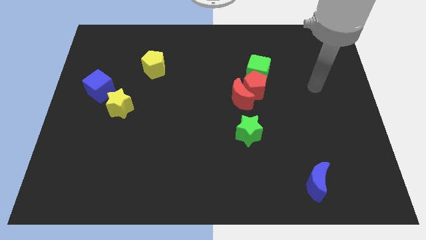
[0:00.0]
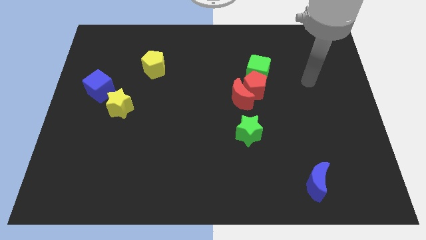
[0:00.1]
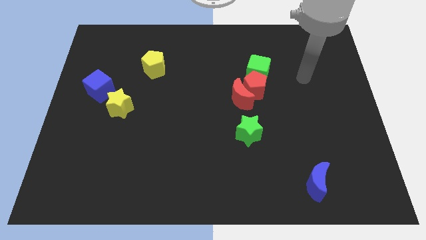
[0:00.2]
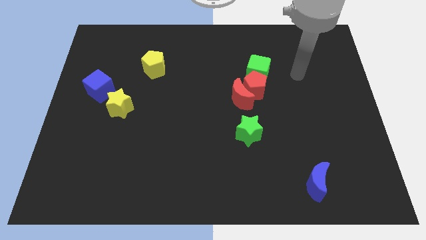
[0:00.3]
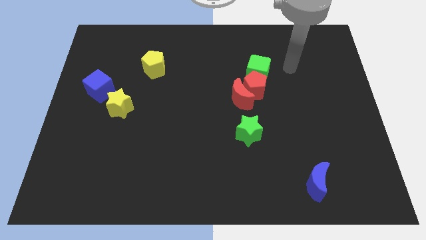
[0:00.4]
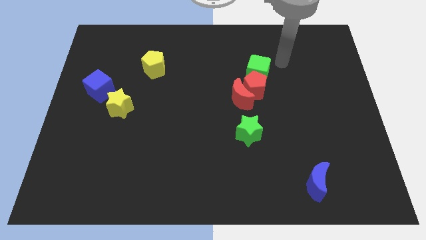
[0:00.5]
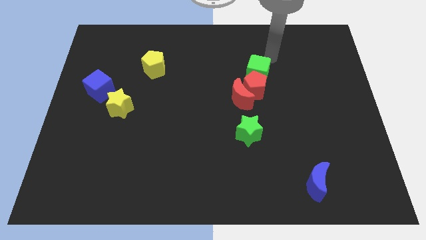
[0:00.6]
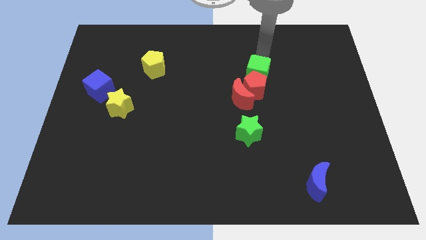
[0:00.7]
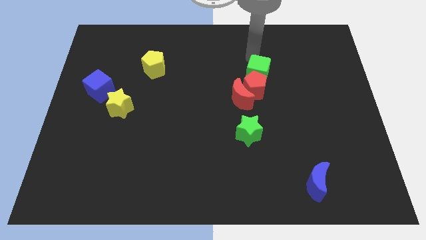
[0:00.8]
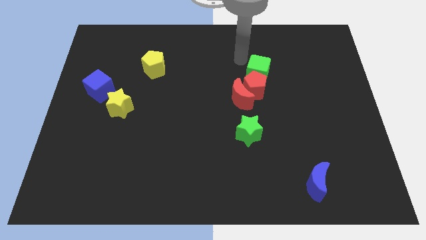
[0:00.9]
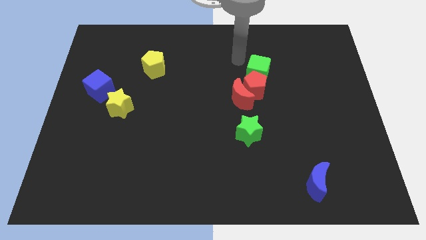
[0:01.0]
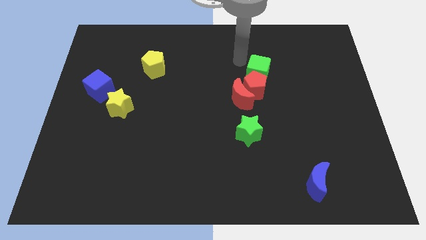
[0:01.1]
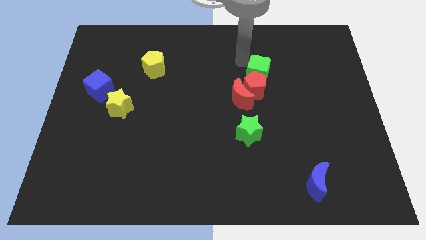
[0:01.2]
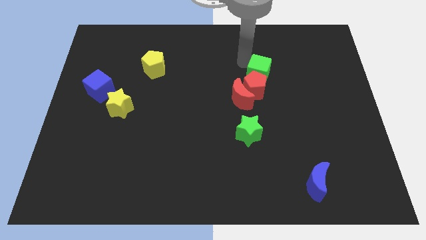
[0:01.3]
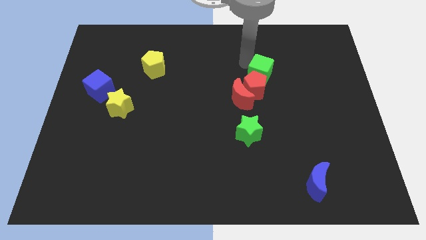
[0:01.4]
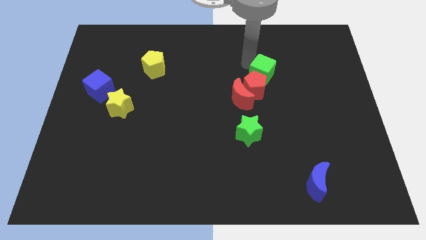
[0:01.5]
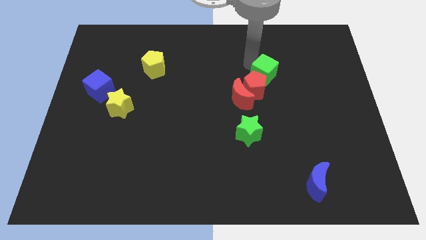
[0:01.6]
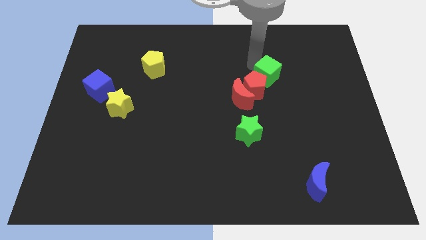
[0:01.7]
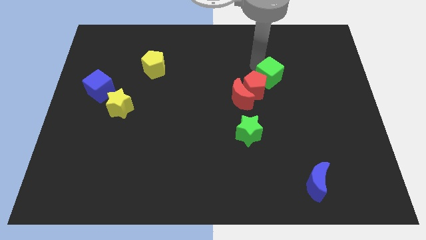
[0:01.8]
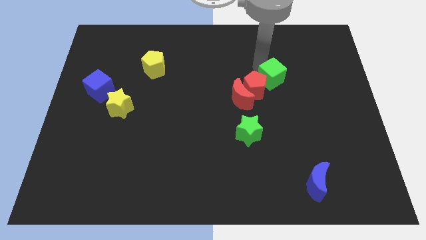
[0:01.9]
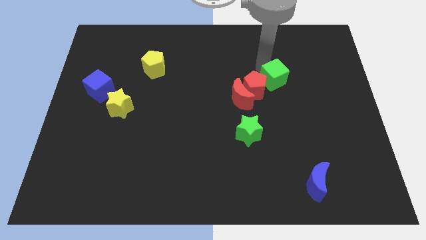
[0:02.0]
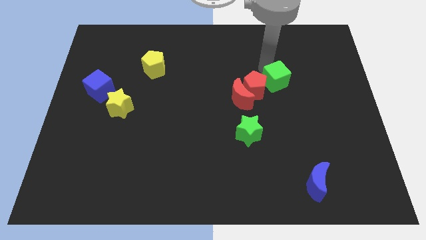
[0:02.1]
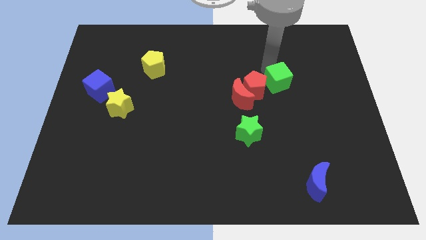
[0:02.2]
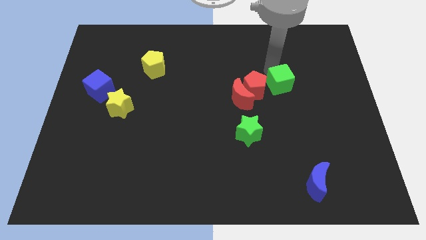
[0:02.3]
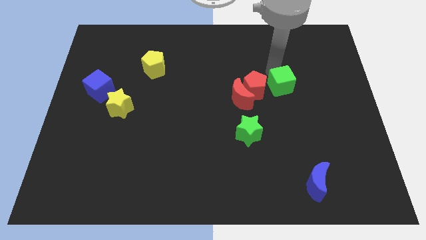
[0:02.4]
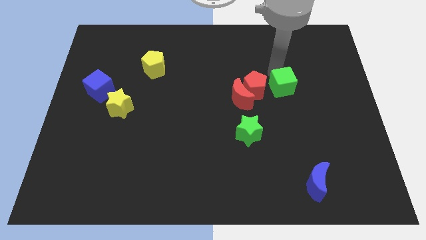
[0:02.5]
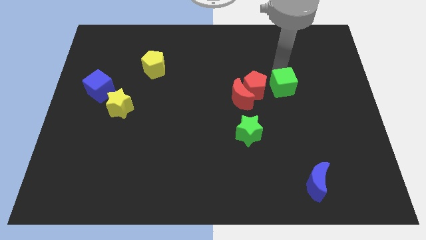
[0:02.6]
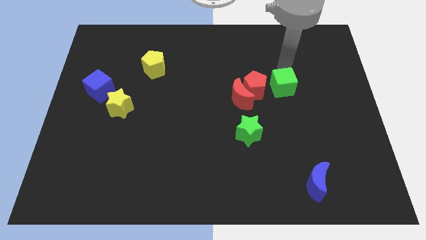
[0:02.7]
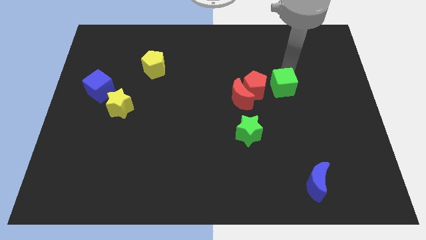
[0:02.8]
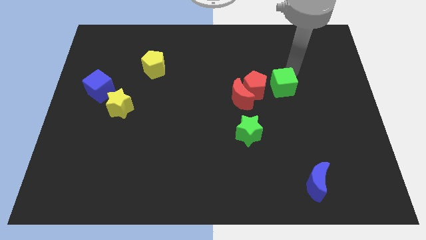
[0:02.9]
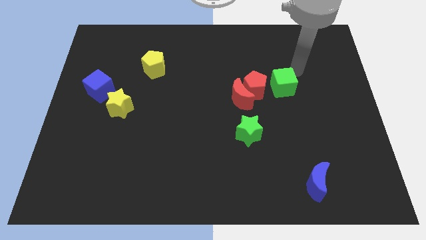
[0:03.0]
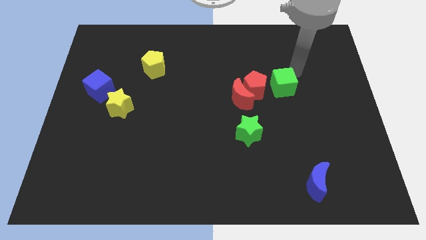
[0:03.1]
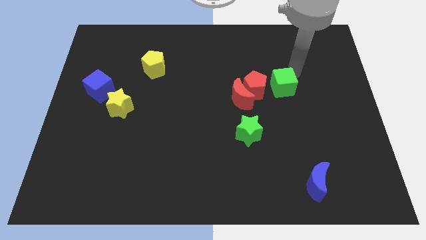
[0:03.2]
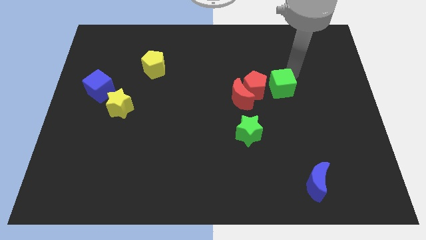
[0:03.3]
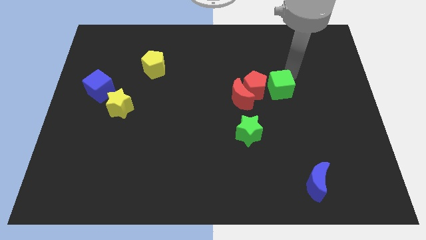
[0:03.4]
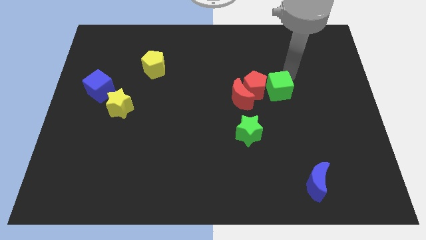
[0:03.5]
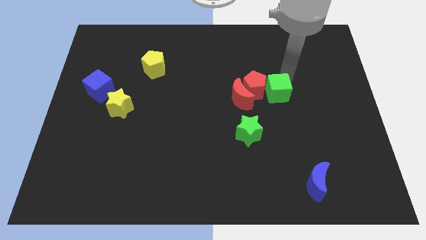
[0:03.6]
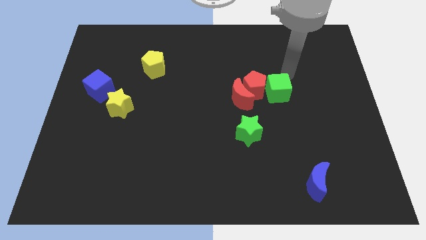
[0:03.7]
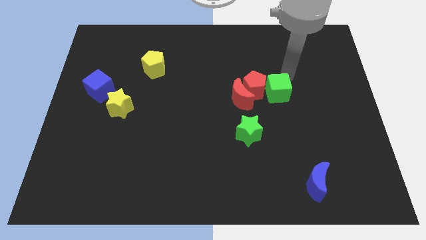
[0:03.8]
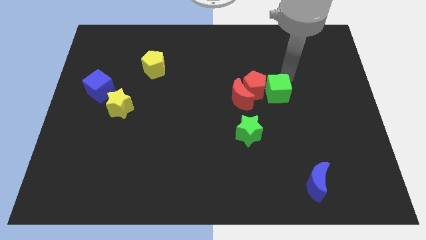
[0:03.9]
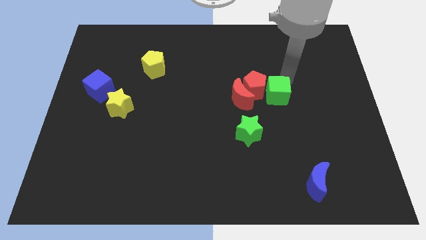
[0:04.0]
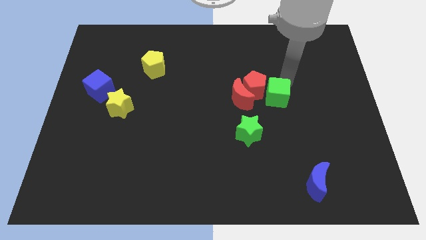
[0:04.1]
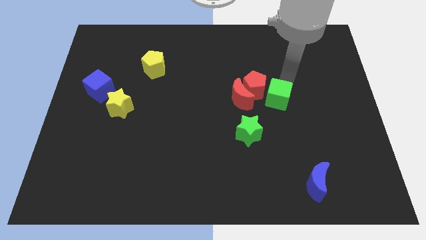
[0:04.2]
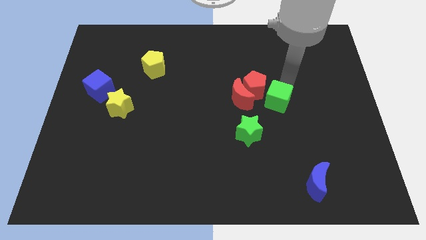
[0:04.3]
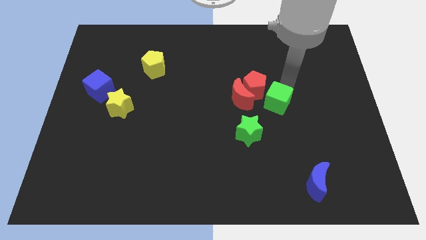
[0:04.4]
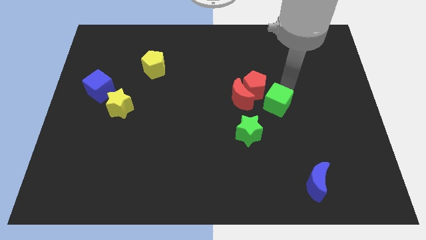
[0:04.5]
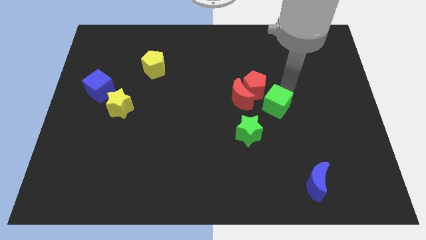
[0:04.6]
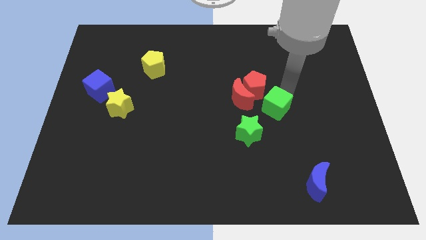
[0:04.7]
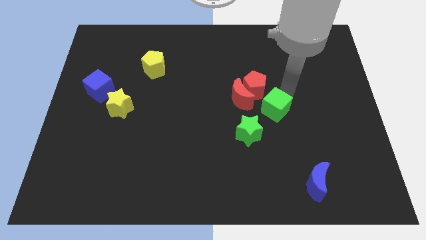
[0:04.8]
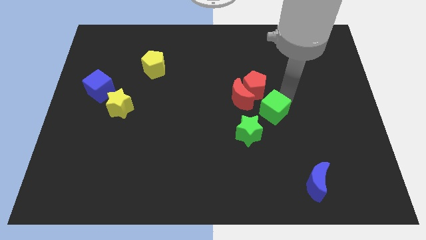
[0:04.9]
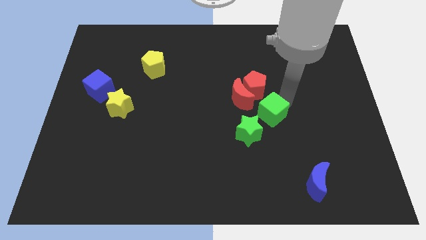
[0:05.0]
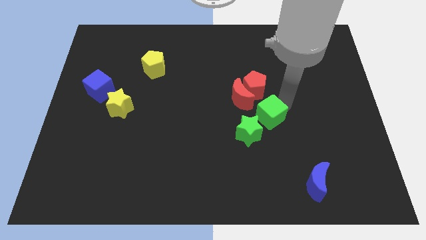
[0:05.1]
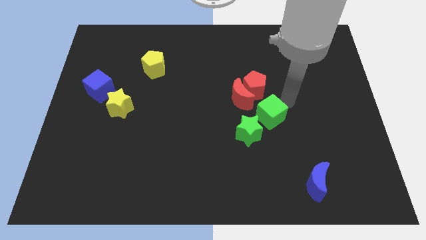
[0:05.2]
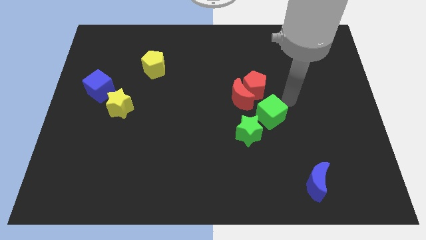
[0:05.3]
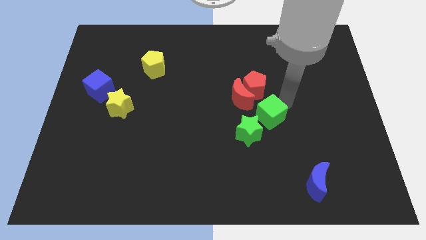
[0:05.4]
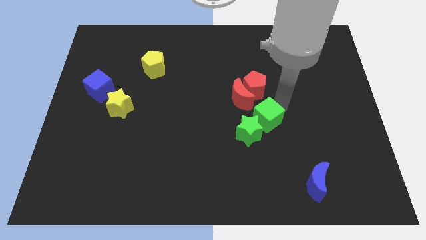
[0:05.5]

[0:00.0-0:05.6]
put the green cube towards the green star

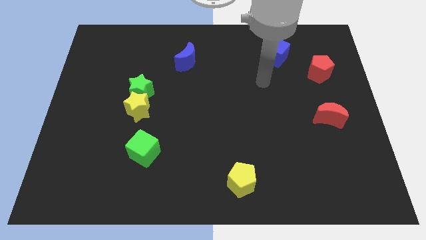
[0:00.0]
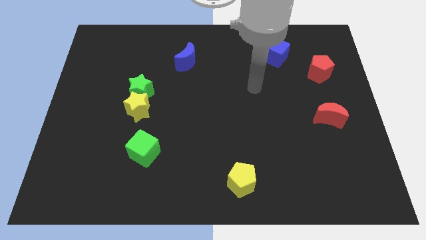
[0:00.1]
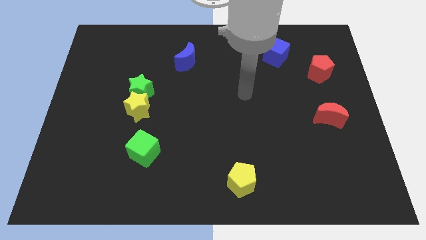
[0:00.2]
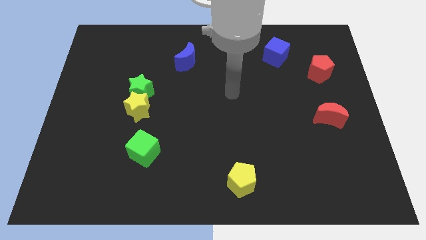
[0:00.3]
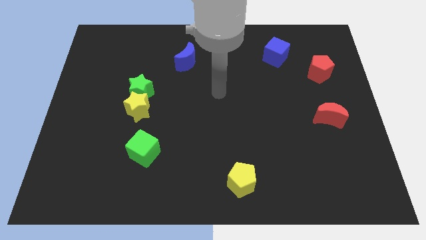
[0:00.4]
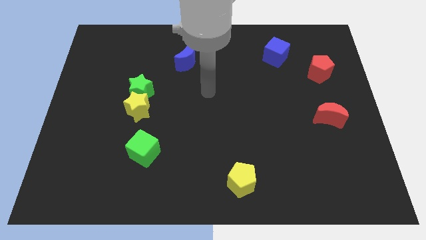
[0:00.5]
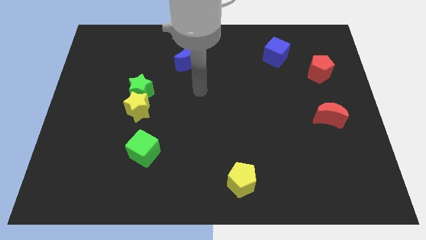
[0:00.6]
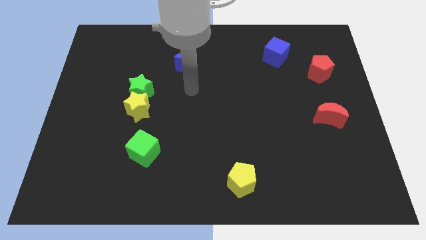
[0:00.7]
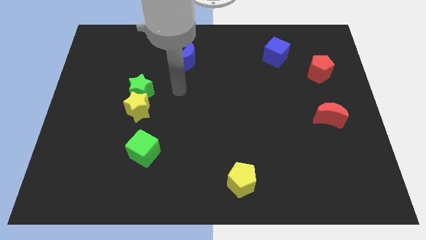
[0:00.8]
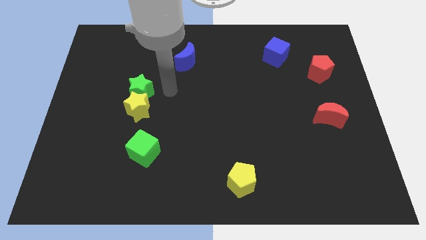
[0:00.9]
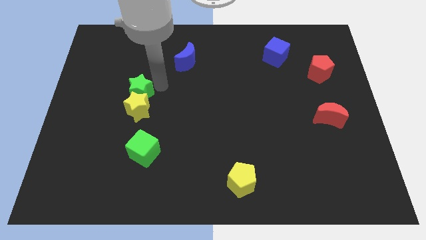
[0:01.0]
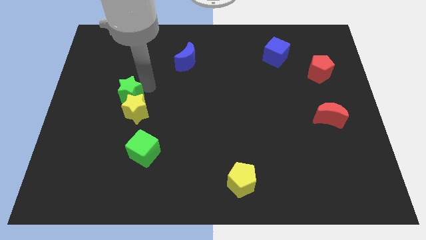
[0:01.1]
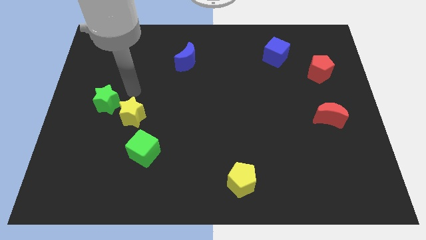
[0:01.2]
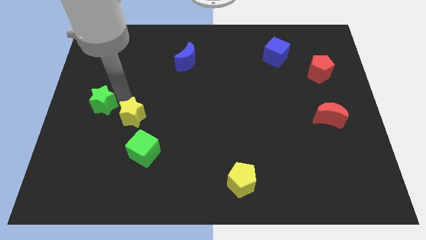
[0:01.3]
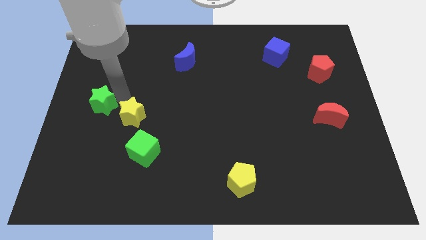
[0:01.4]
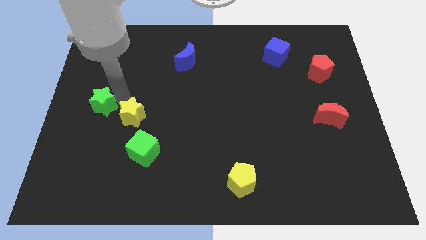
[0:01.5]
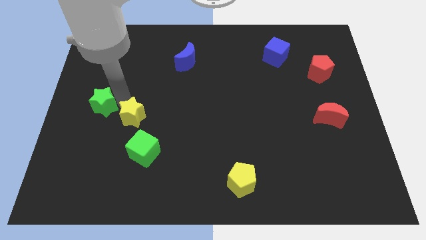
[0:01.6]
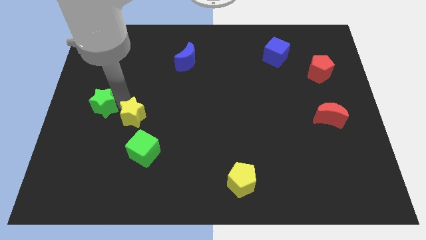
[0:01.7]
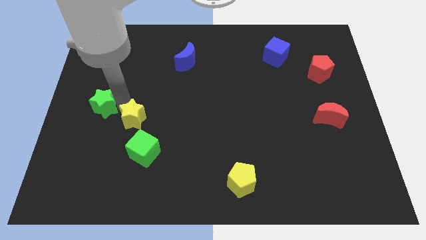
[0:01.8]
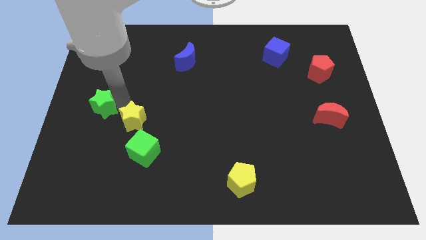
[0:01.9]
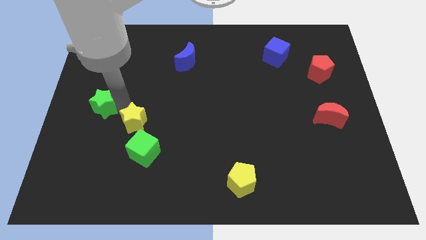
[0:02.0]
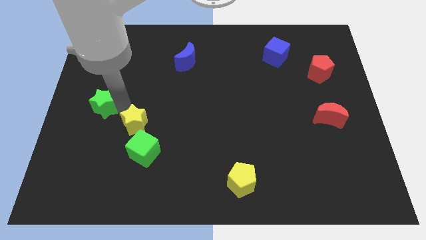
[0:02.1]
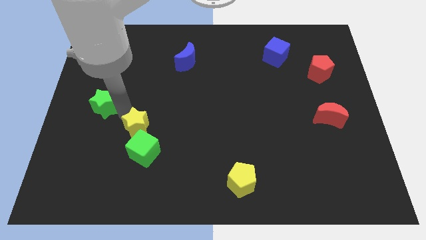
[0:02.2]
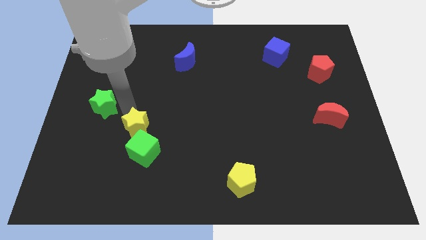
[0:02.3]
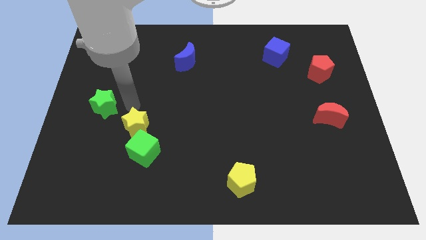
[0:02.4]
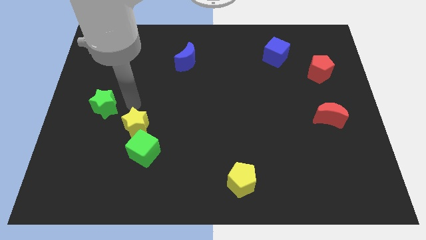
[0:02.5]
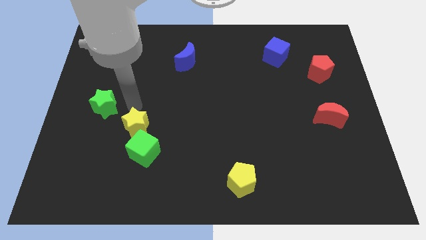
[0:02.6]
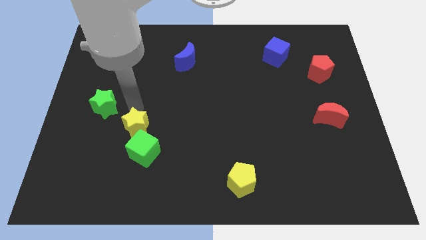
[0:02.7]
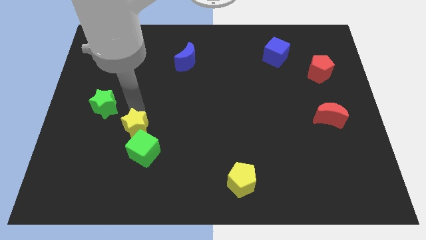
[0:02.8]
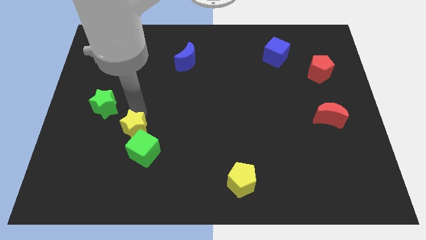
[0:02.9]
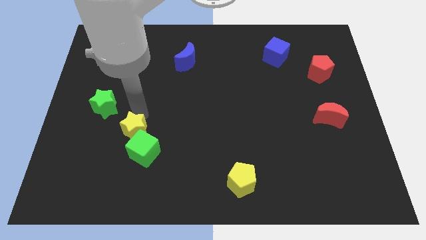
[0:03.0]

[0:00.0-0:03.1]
put the yellow star close to the green cube
